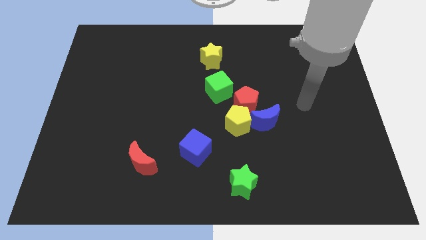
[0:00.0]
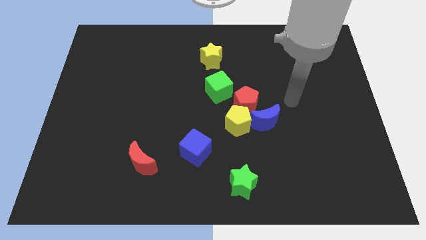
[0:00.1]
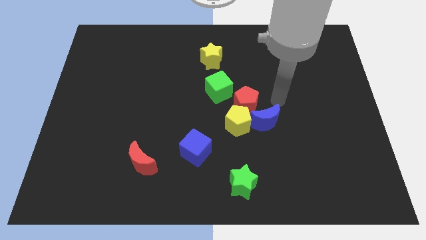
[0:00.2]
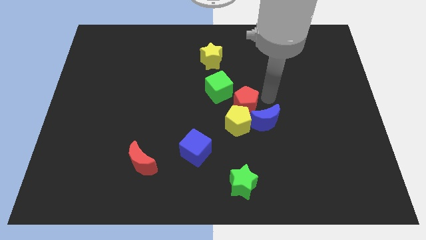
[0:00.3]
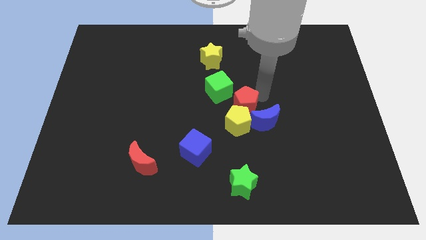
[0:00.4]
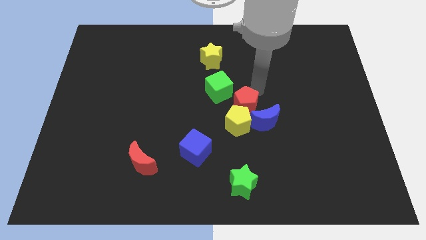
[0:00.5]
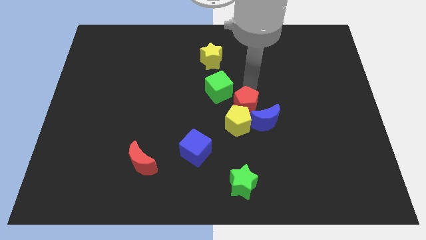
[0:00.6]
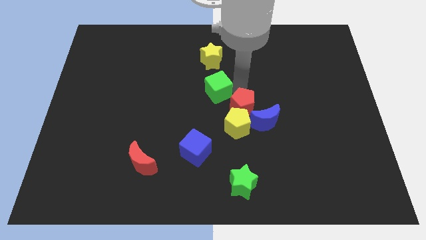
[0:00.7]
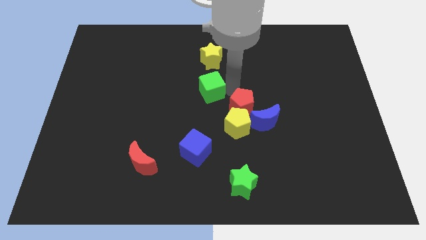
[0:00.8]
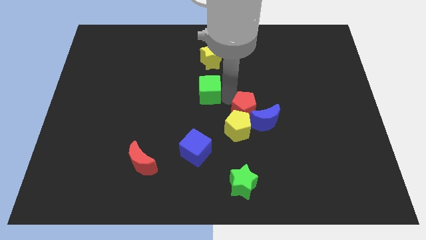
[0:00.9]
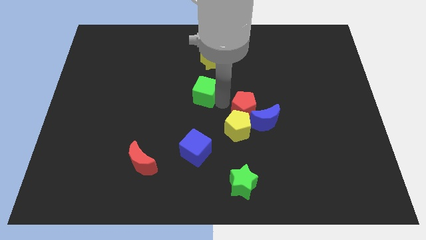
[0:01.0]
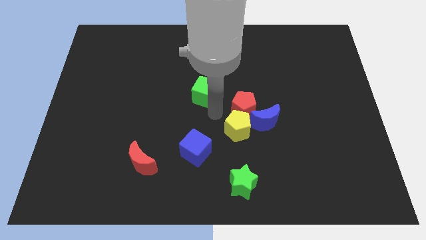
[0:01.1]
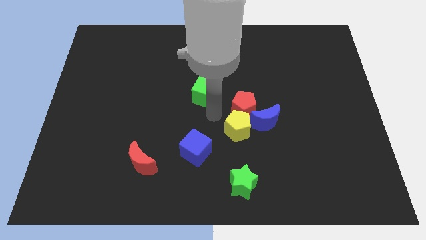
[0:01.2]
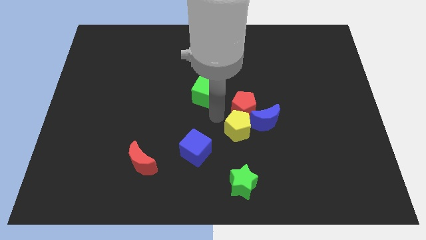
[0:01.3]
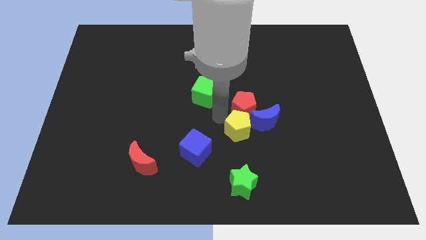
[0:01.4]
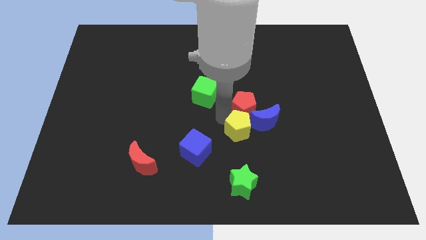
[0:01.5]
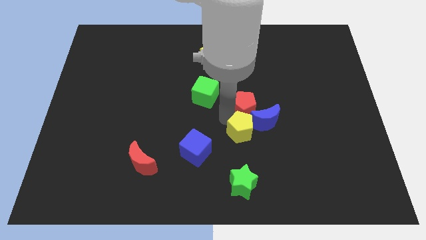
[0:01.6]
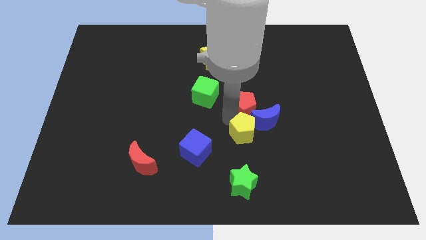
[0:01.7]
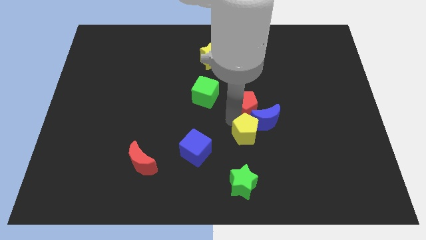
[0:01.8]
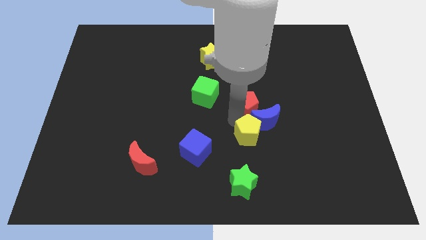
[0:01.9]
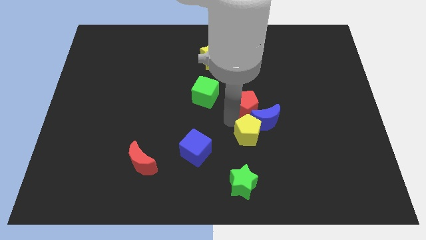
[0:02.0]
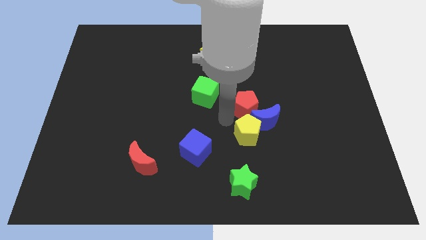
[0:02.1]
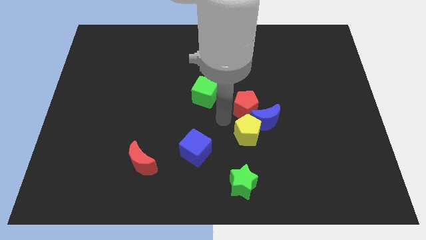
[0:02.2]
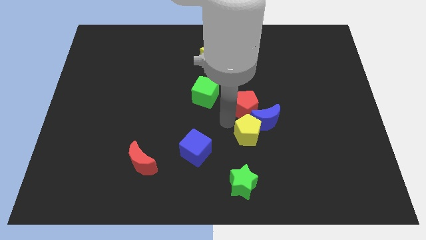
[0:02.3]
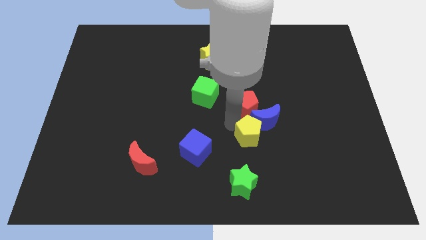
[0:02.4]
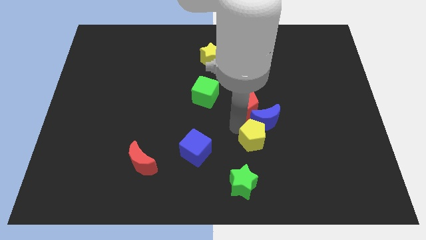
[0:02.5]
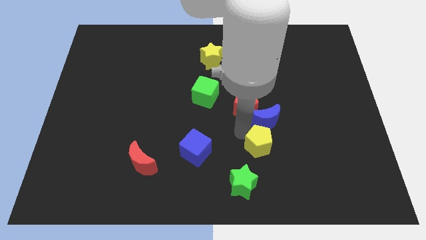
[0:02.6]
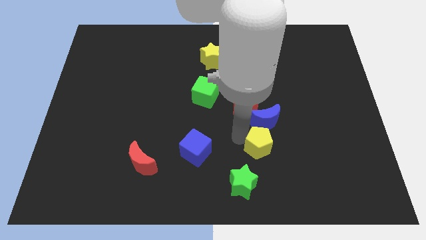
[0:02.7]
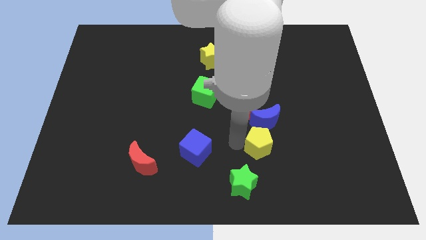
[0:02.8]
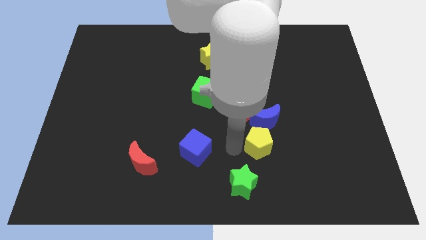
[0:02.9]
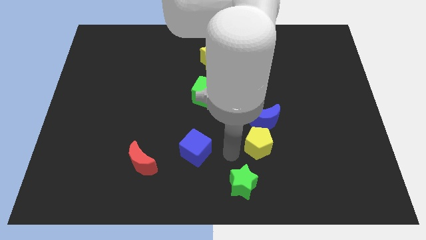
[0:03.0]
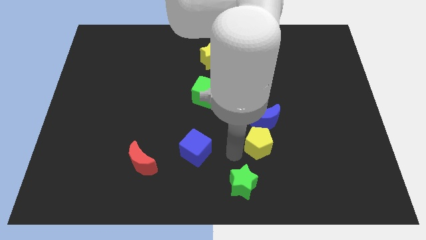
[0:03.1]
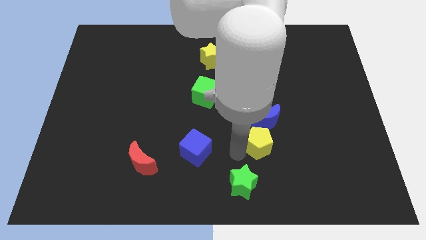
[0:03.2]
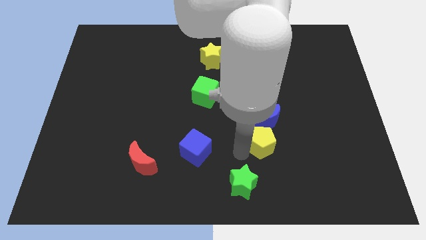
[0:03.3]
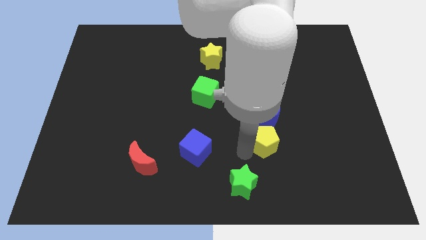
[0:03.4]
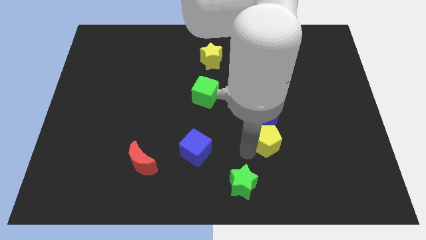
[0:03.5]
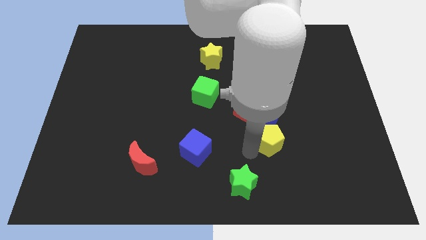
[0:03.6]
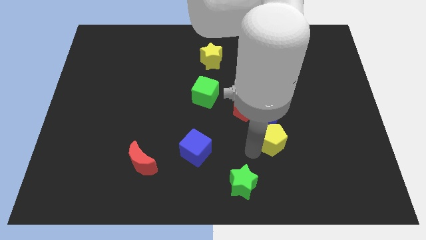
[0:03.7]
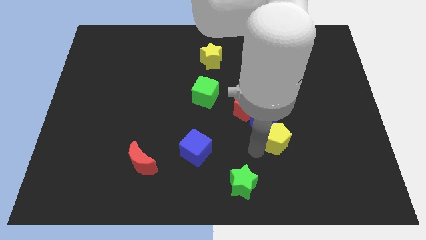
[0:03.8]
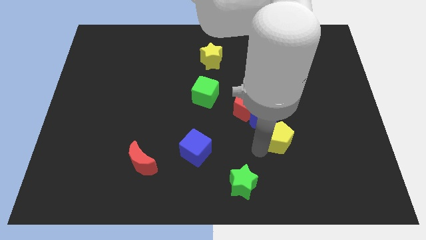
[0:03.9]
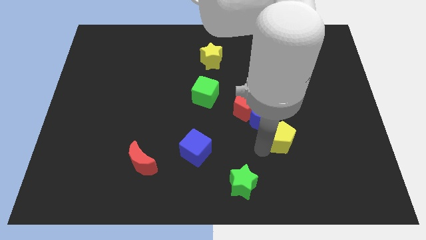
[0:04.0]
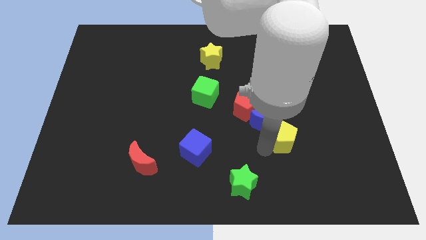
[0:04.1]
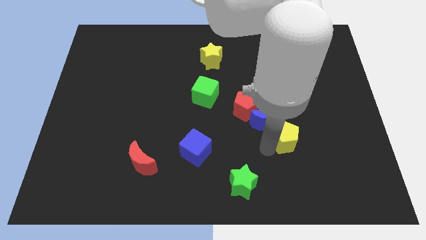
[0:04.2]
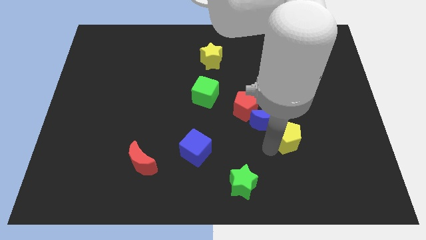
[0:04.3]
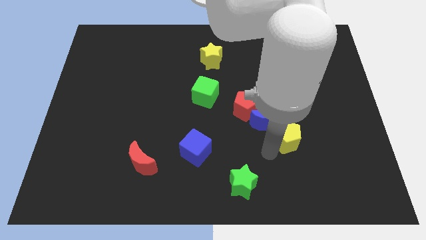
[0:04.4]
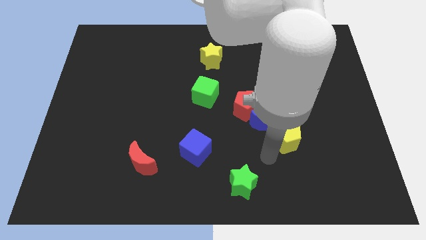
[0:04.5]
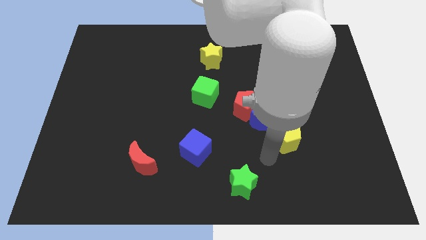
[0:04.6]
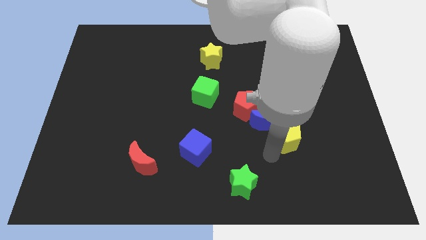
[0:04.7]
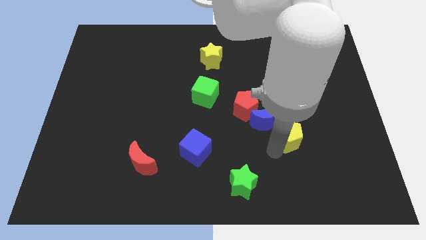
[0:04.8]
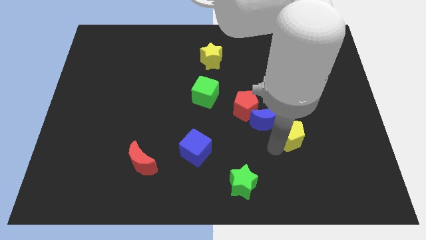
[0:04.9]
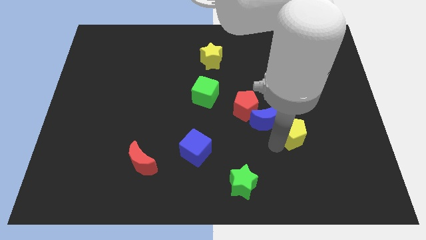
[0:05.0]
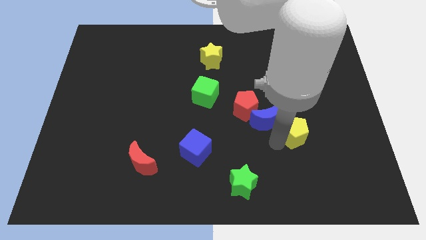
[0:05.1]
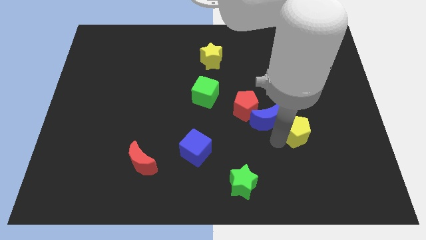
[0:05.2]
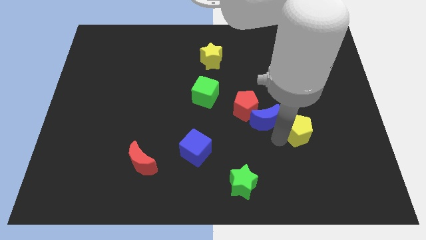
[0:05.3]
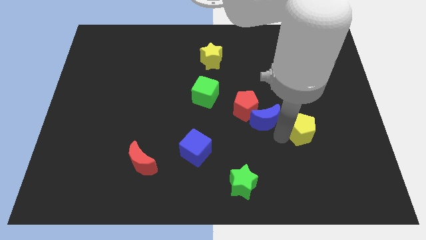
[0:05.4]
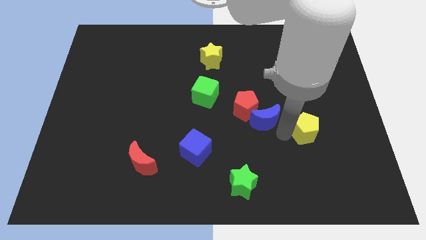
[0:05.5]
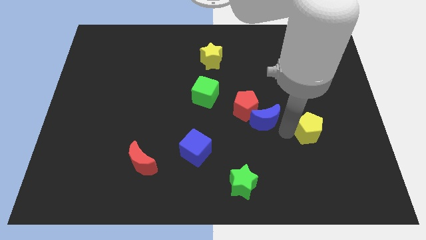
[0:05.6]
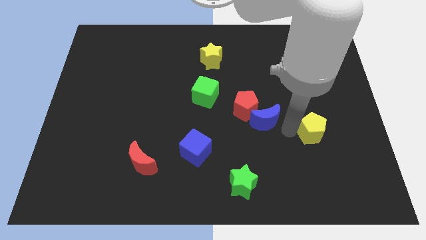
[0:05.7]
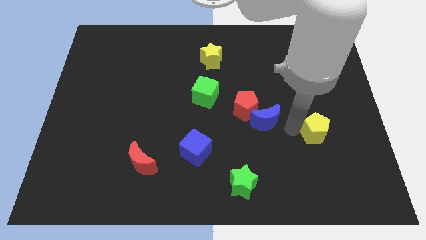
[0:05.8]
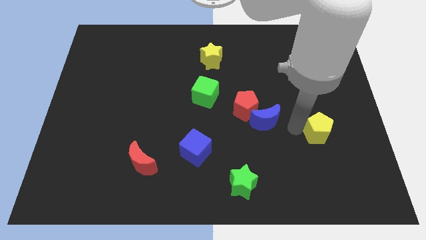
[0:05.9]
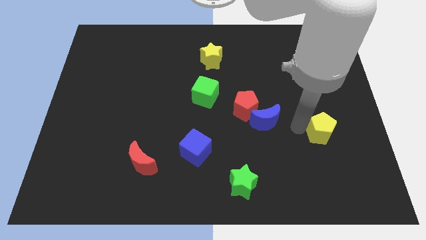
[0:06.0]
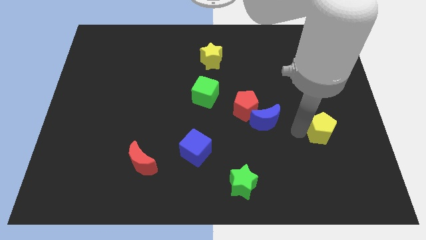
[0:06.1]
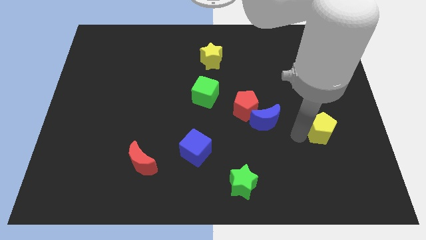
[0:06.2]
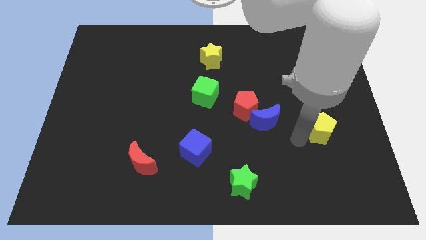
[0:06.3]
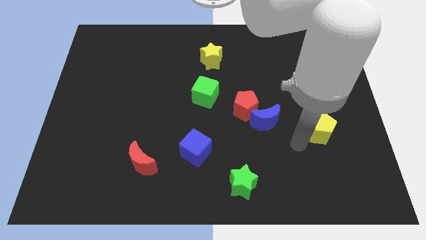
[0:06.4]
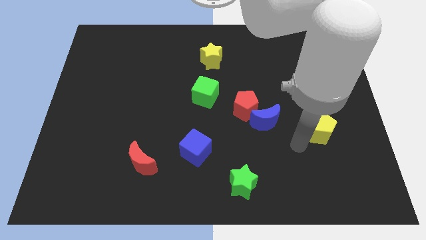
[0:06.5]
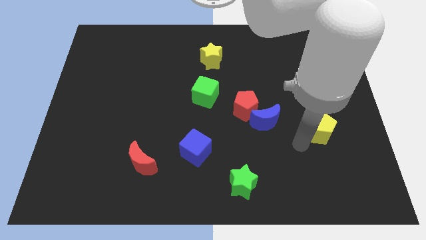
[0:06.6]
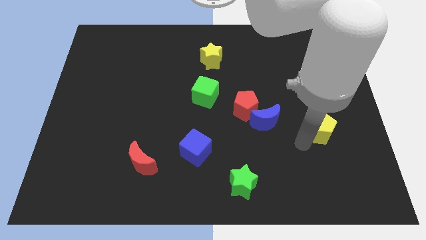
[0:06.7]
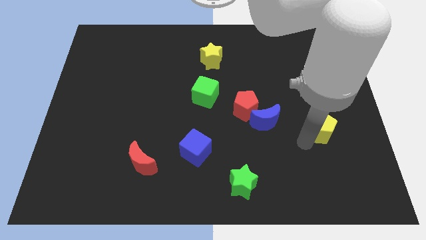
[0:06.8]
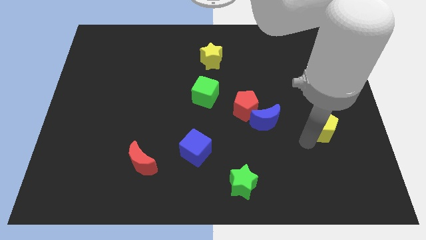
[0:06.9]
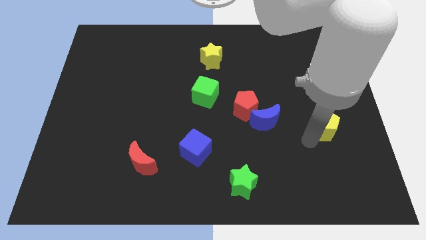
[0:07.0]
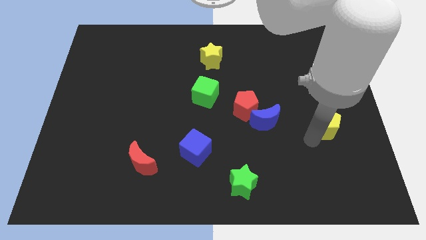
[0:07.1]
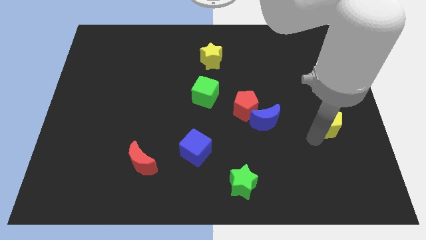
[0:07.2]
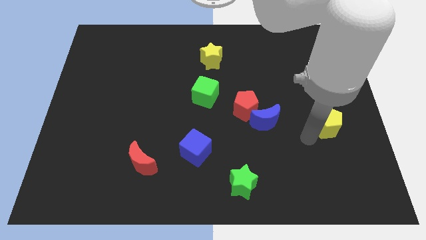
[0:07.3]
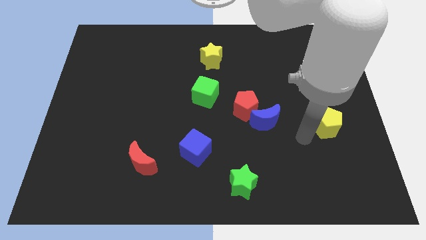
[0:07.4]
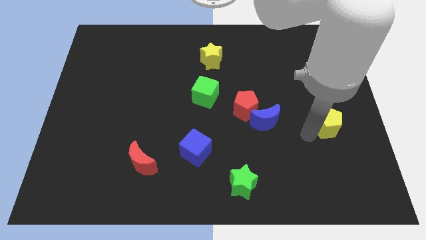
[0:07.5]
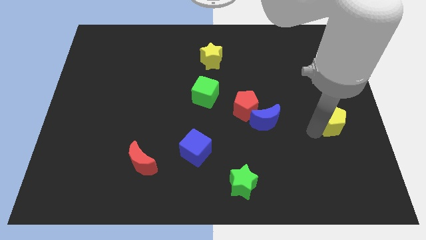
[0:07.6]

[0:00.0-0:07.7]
put the yellow pentagon to the center right

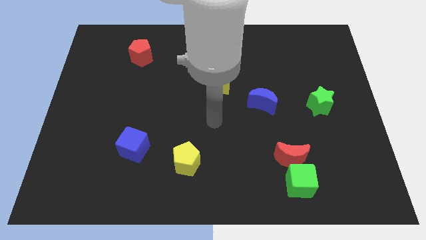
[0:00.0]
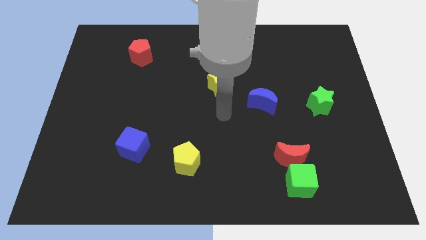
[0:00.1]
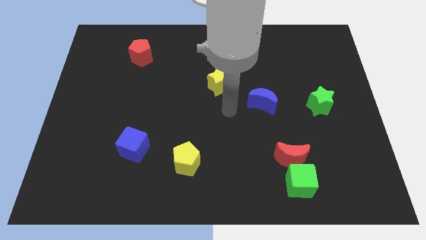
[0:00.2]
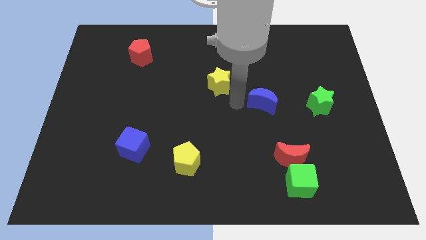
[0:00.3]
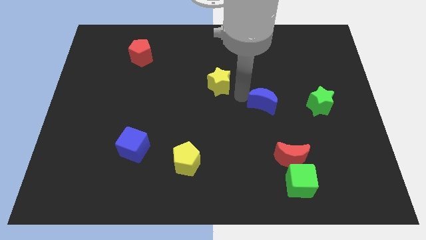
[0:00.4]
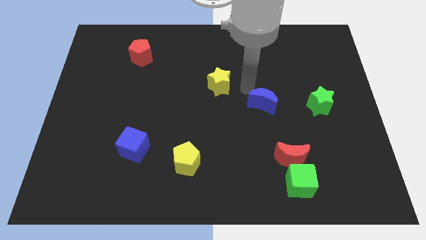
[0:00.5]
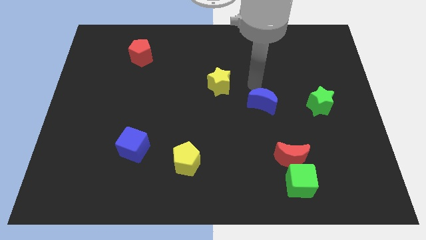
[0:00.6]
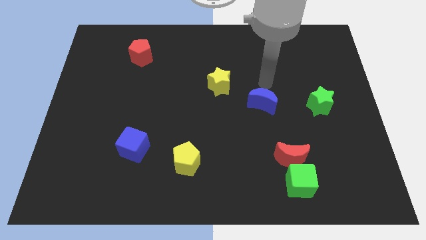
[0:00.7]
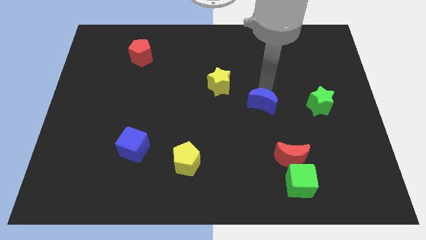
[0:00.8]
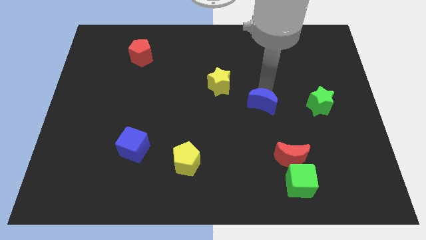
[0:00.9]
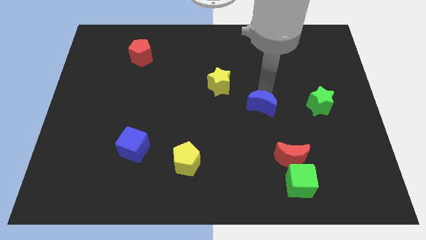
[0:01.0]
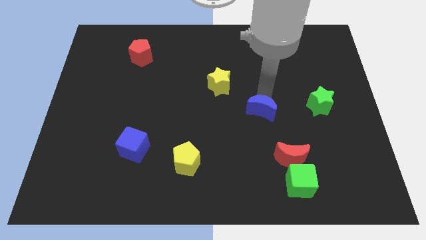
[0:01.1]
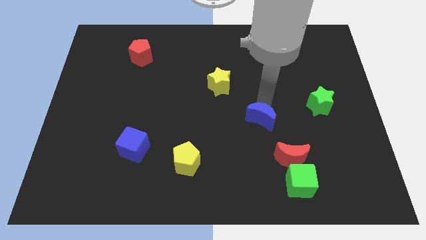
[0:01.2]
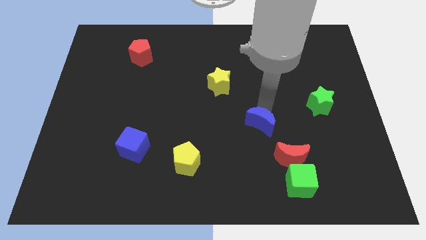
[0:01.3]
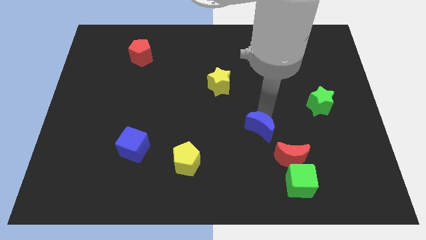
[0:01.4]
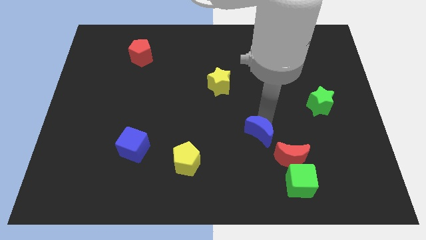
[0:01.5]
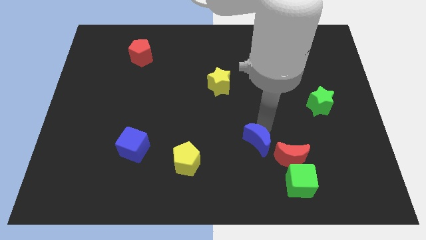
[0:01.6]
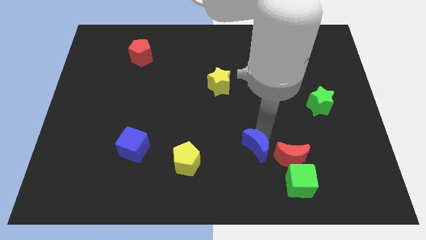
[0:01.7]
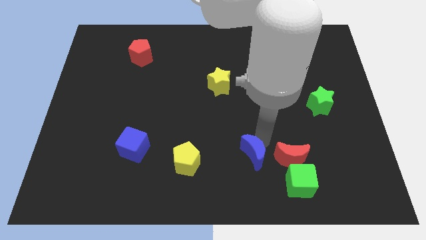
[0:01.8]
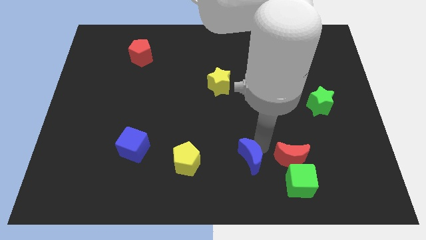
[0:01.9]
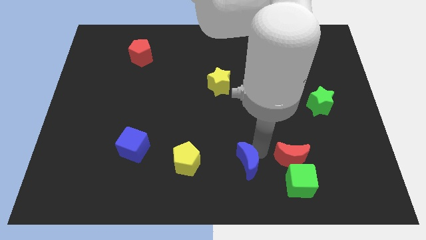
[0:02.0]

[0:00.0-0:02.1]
move the blue moon to the bottom
